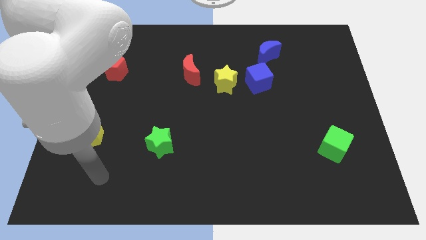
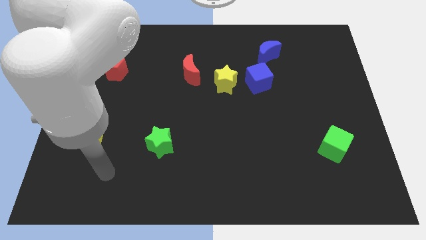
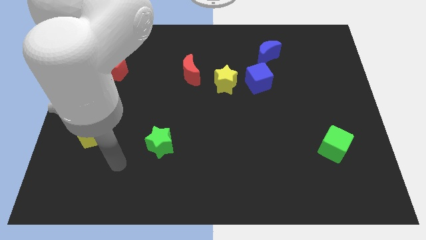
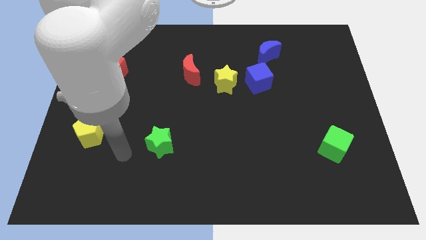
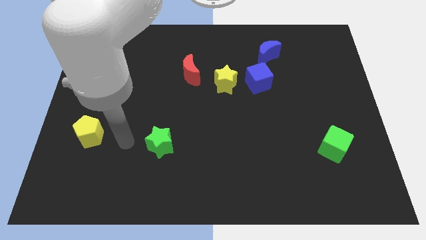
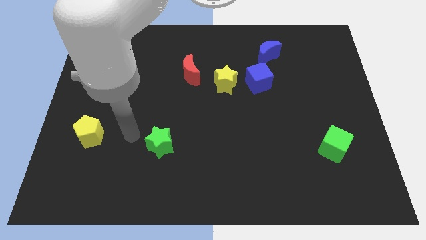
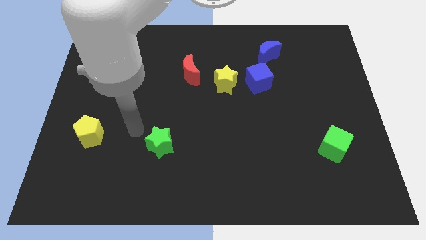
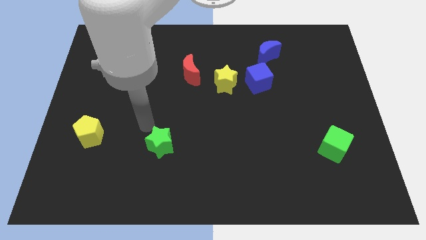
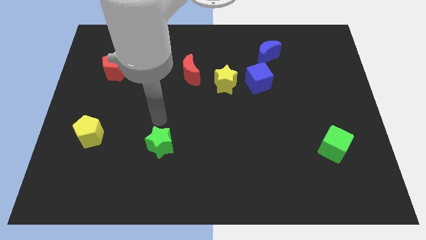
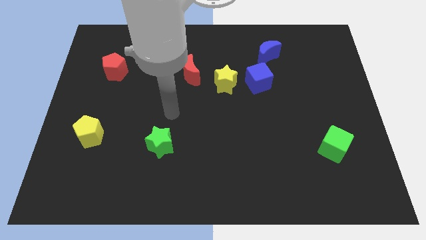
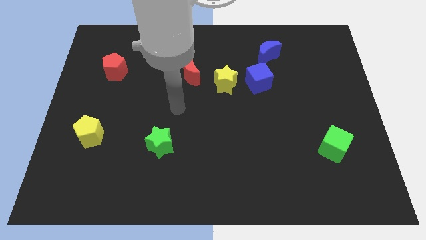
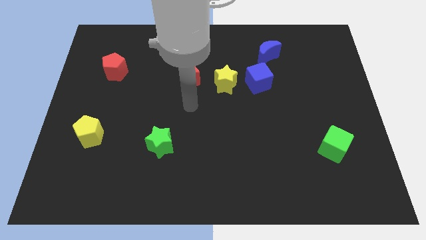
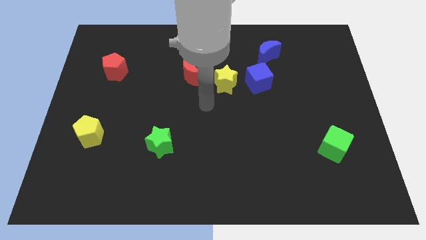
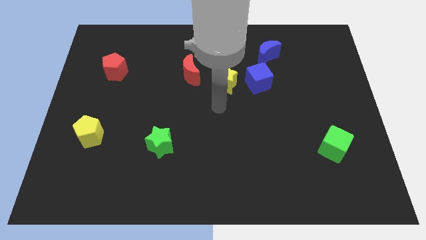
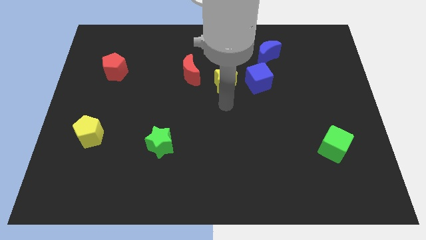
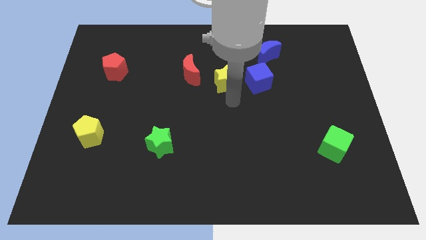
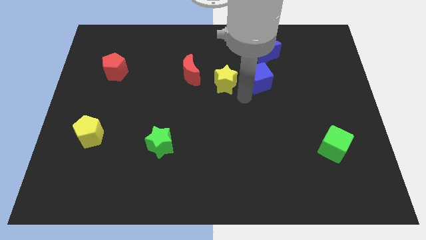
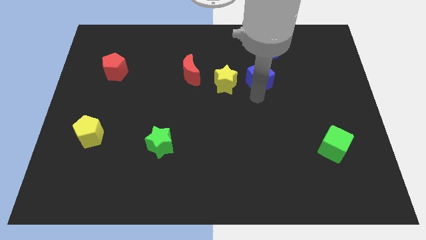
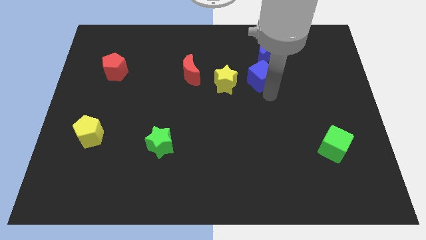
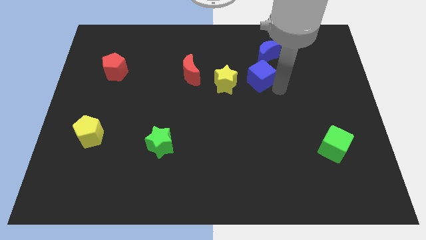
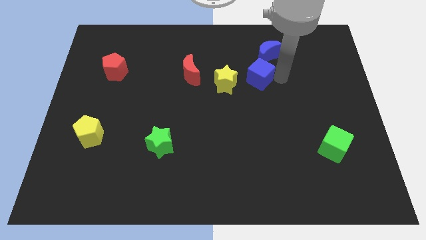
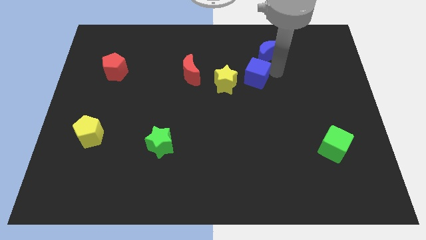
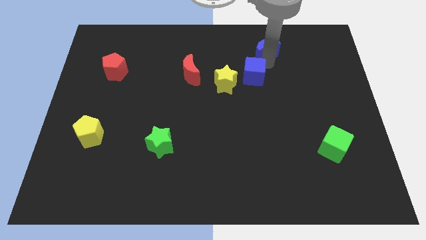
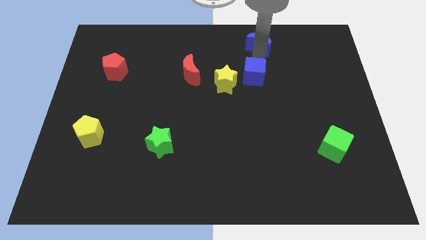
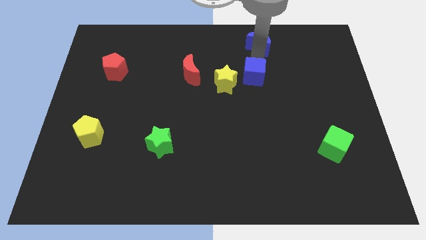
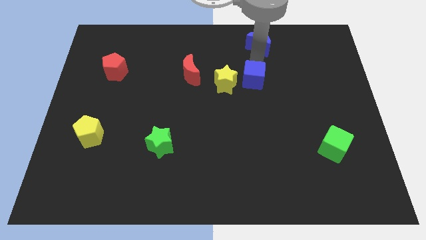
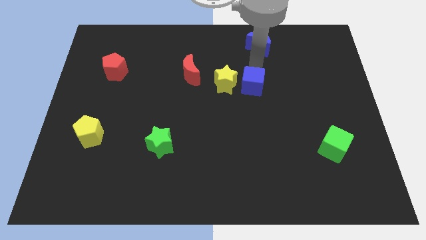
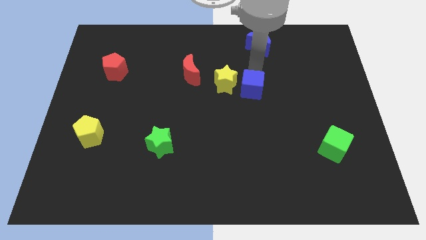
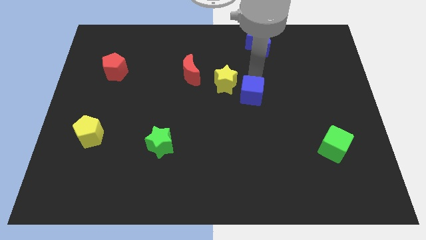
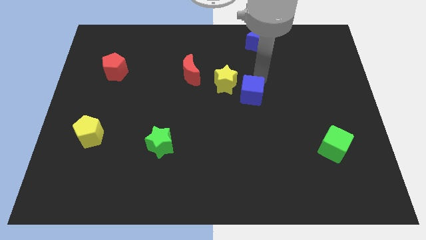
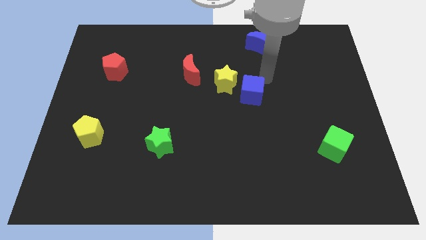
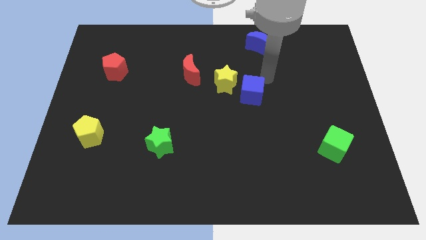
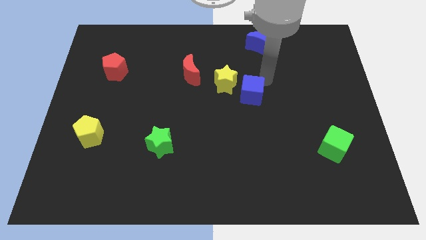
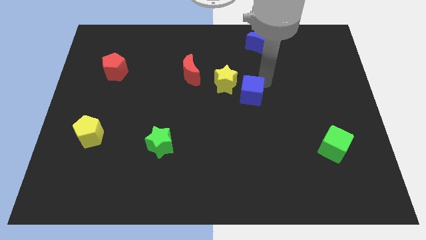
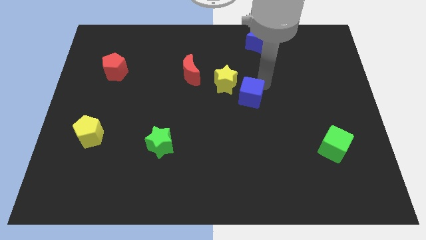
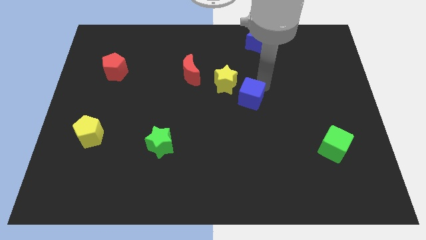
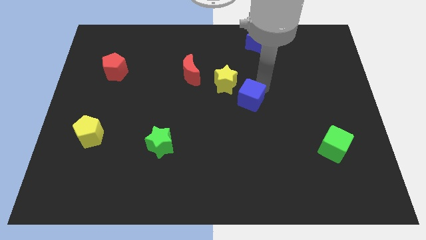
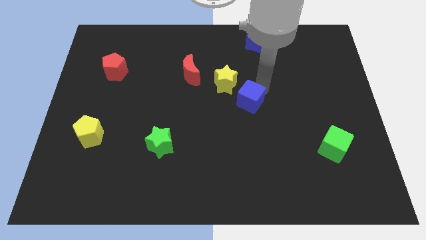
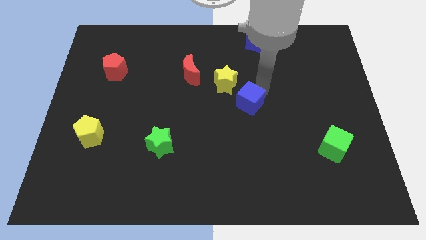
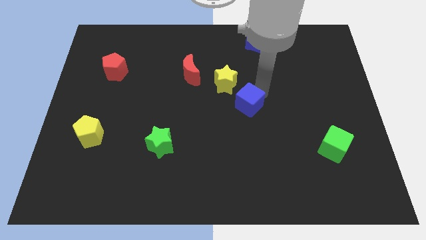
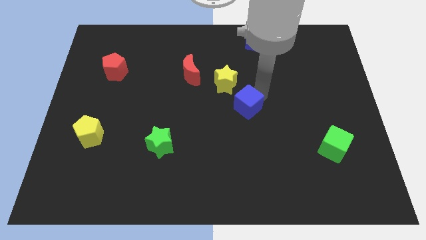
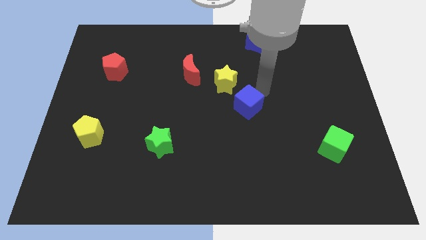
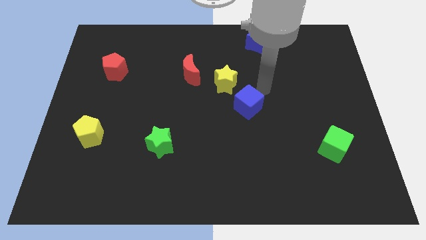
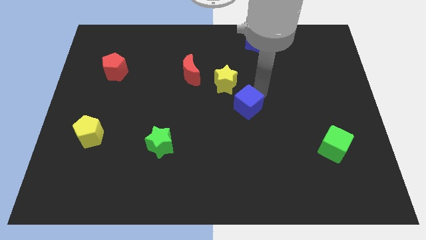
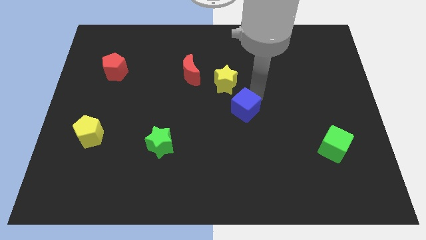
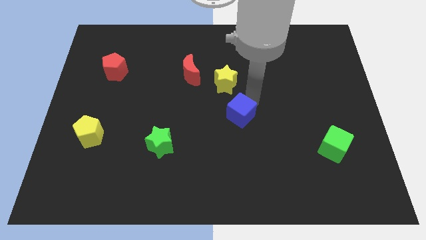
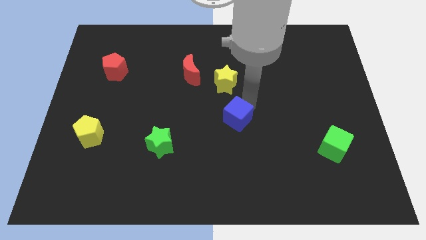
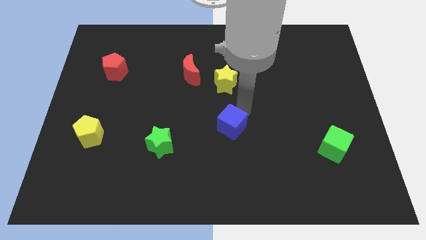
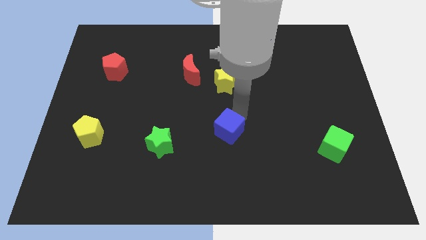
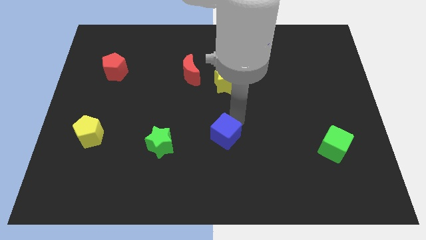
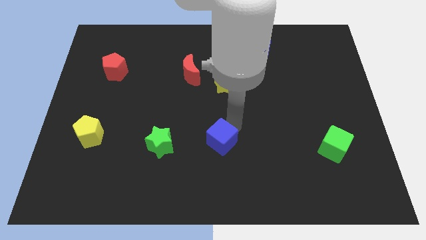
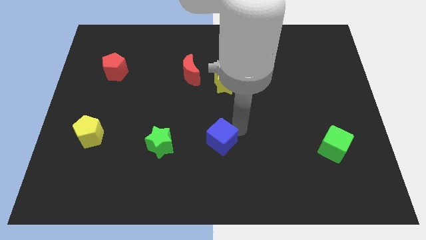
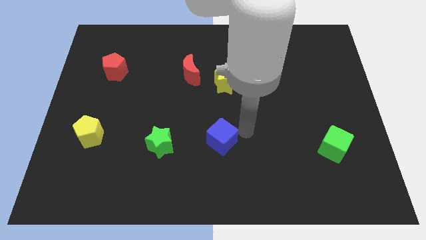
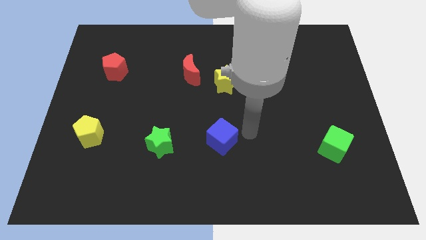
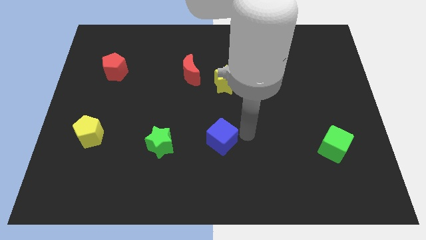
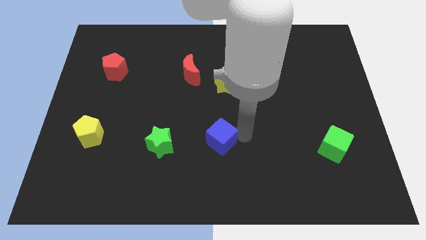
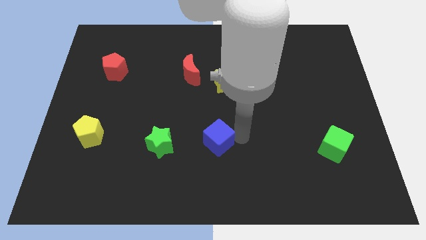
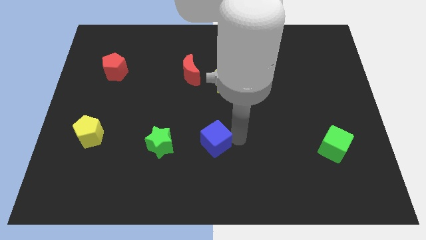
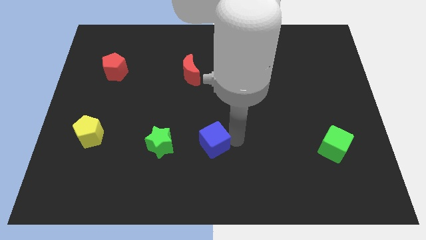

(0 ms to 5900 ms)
slide the blue cube diagonally down and left

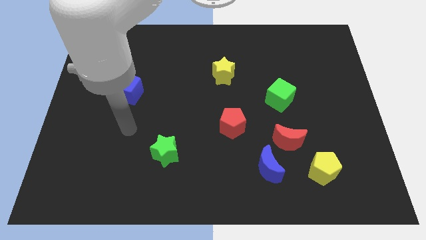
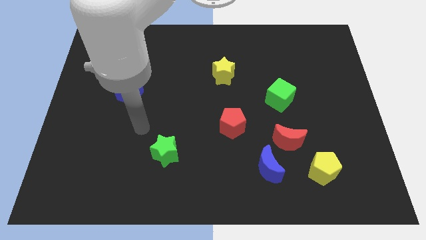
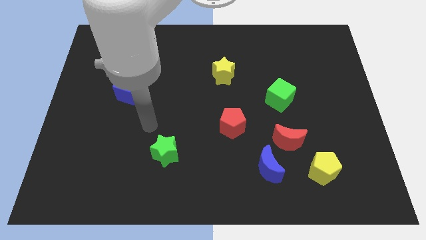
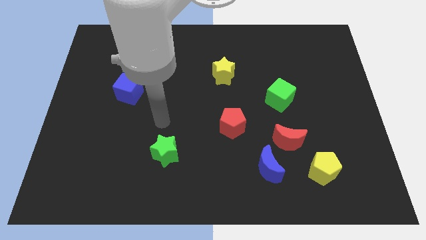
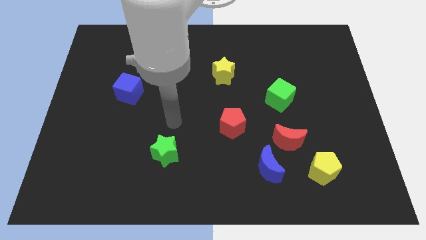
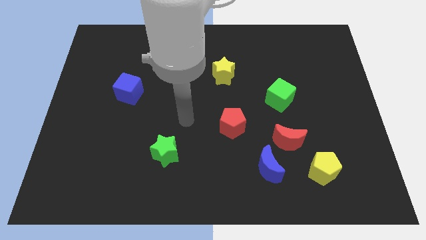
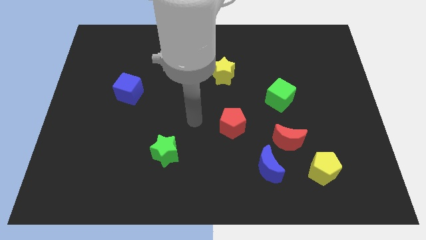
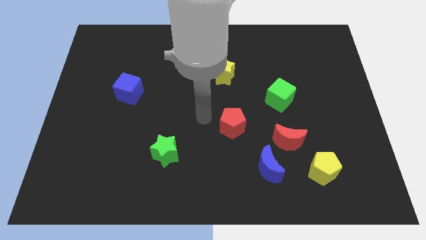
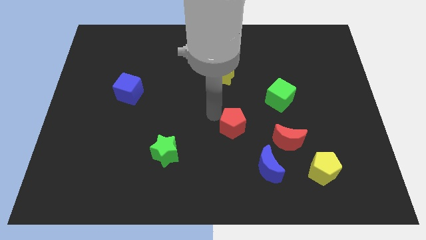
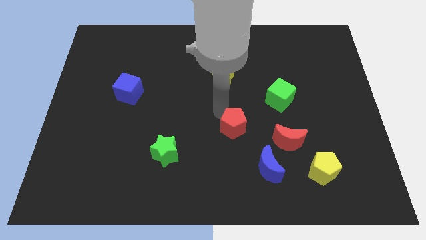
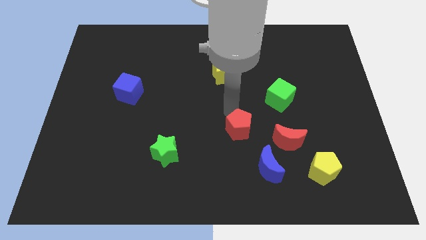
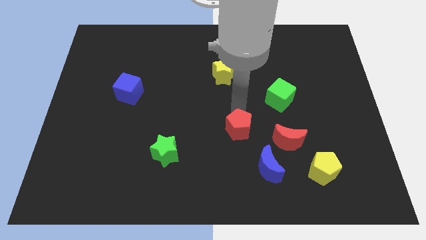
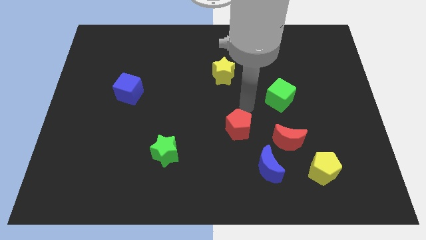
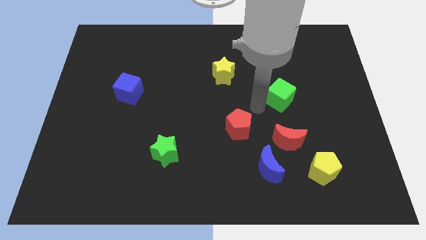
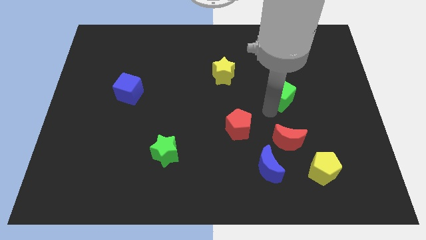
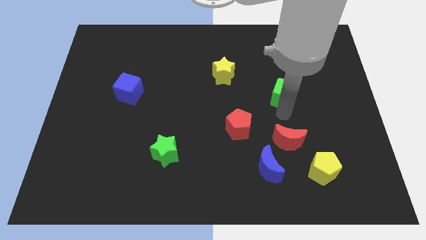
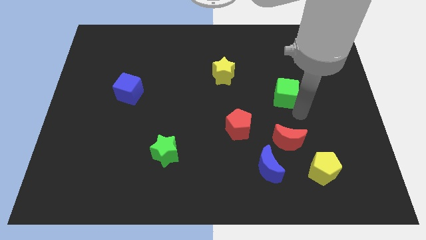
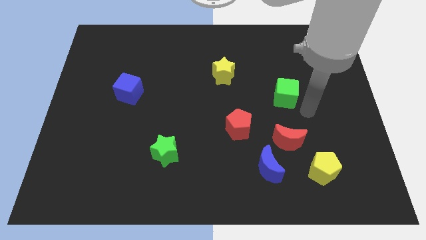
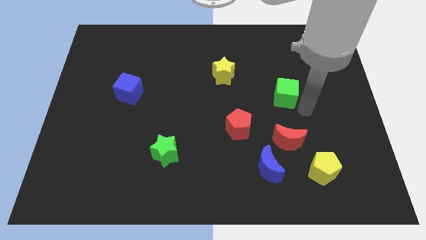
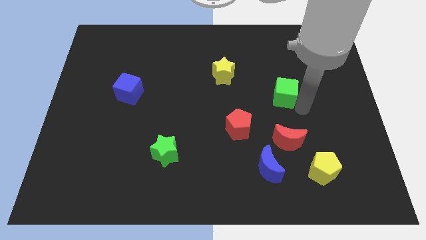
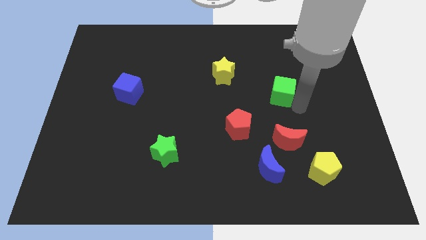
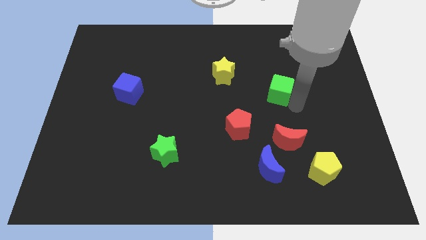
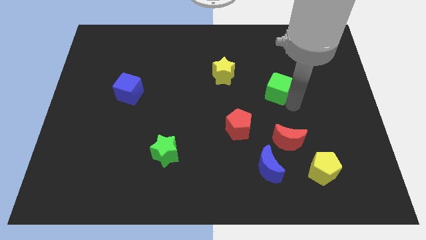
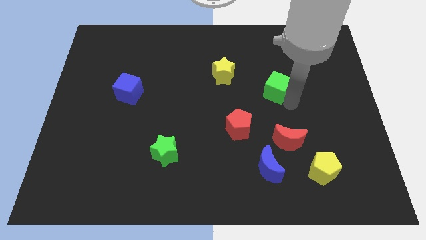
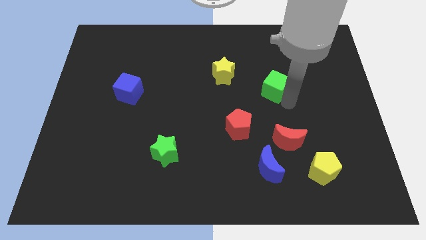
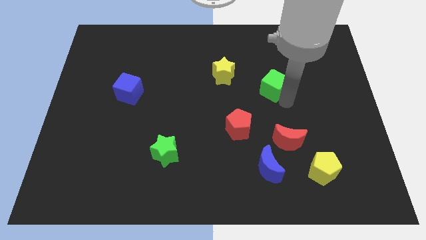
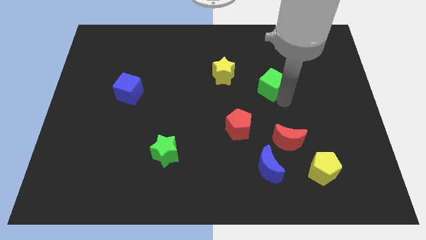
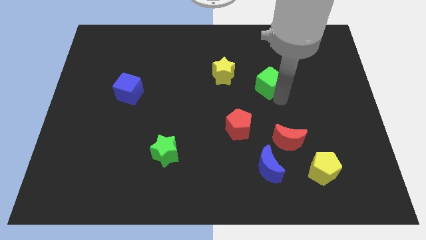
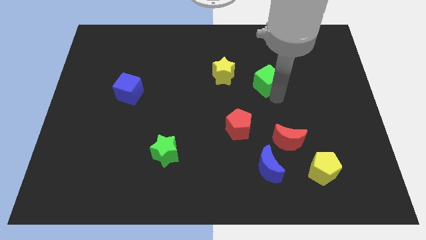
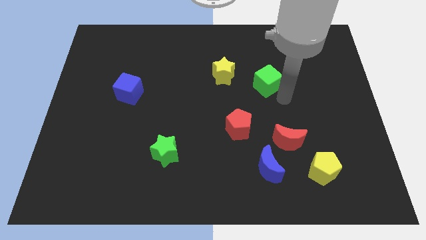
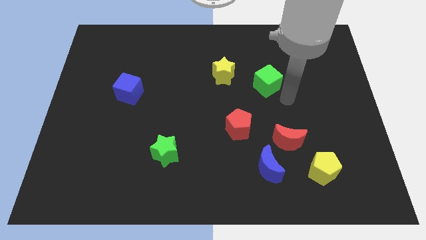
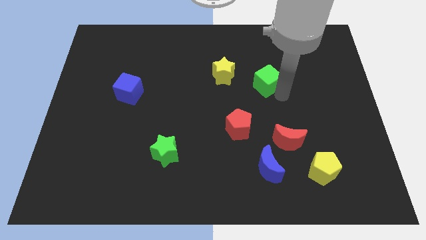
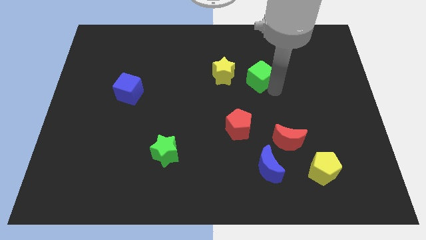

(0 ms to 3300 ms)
push the green cube upwards and to the left a little
